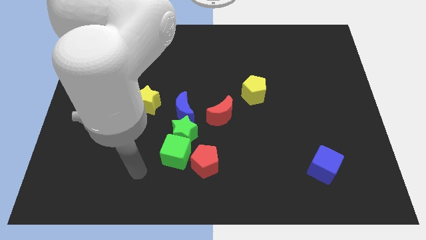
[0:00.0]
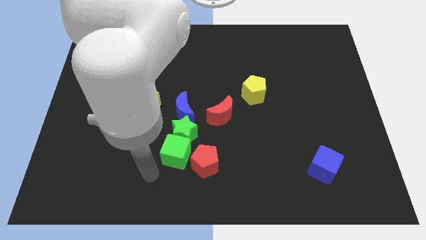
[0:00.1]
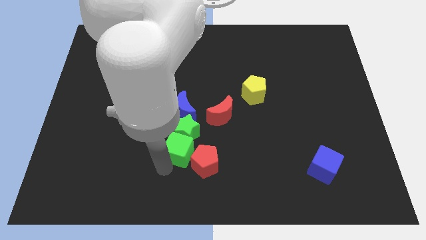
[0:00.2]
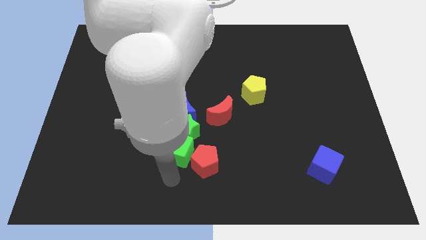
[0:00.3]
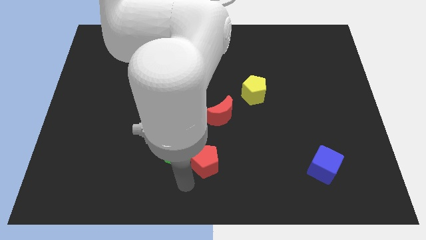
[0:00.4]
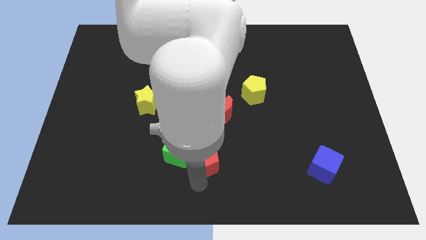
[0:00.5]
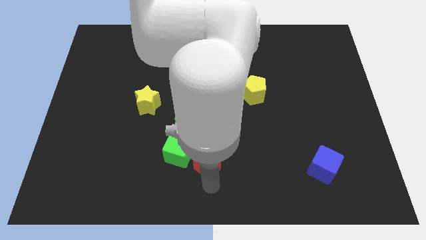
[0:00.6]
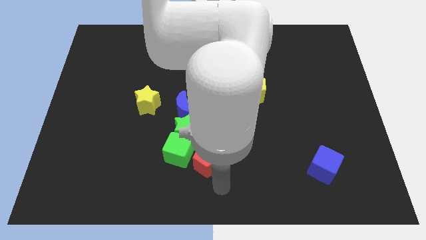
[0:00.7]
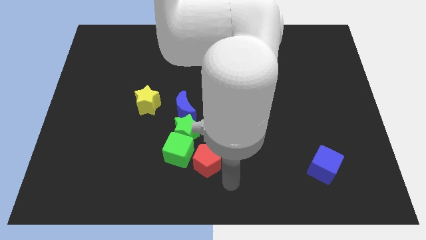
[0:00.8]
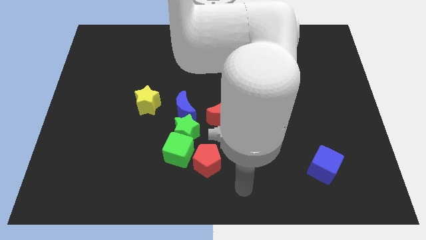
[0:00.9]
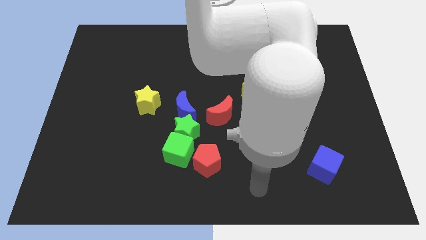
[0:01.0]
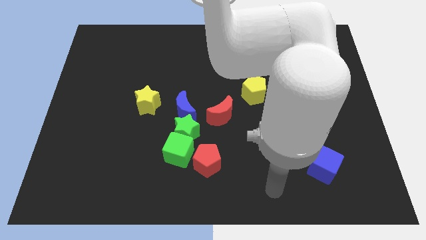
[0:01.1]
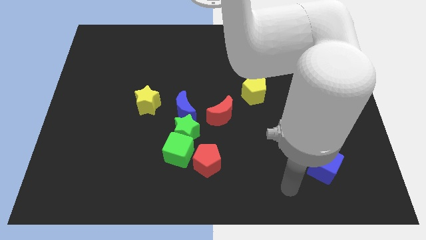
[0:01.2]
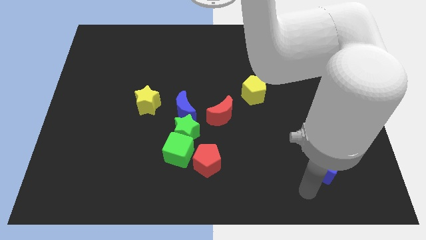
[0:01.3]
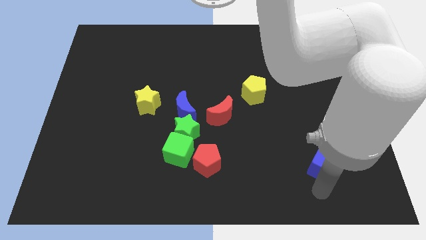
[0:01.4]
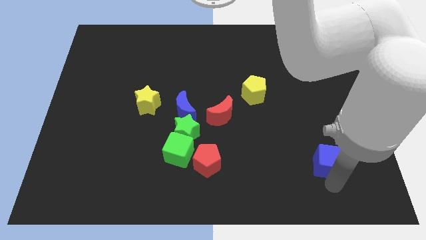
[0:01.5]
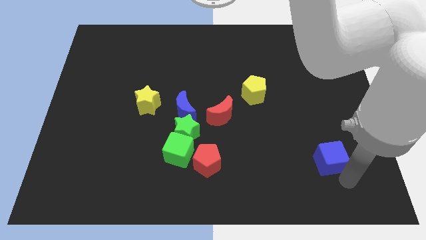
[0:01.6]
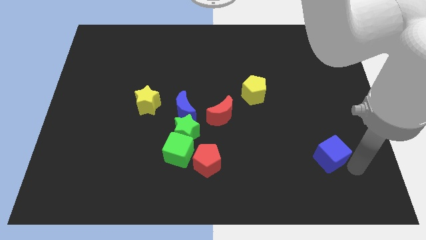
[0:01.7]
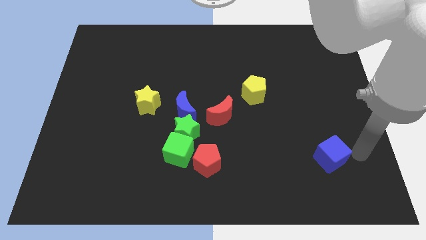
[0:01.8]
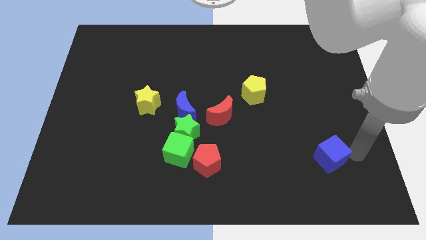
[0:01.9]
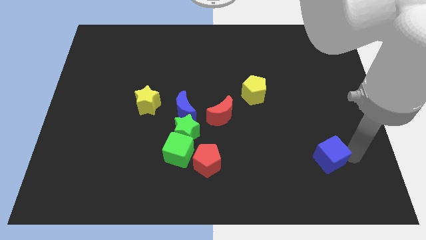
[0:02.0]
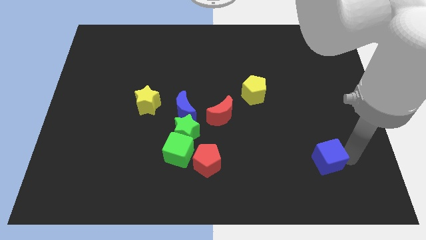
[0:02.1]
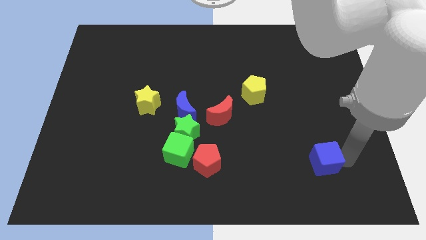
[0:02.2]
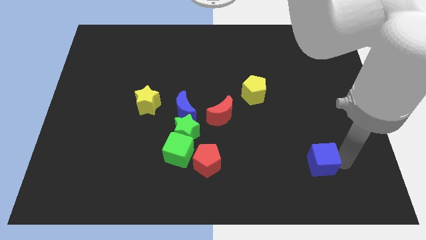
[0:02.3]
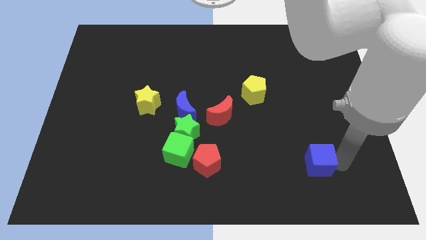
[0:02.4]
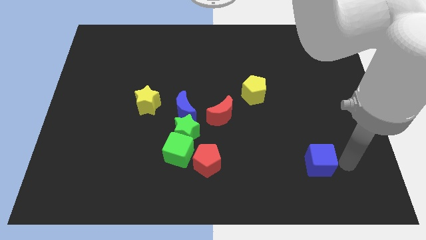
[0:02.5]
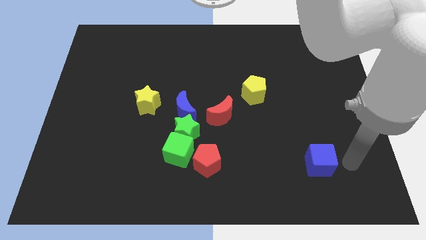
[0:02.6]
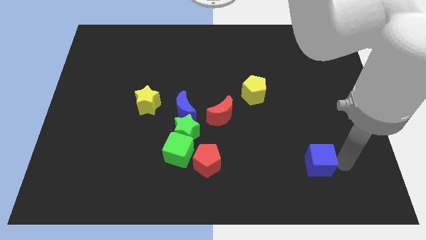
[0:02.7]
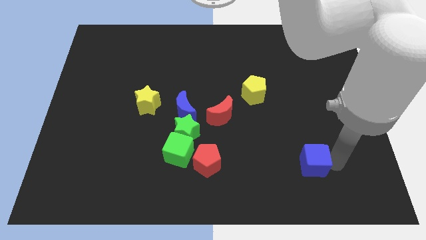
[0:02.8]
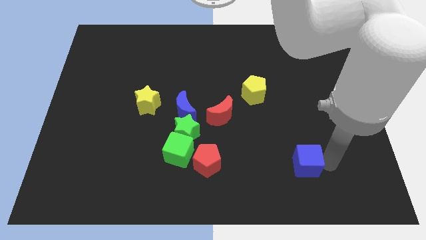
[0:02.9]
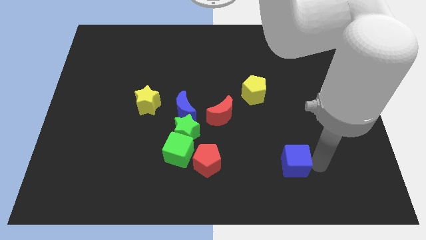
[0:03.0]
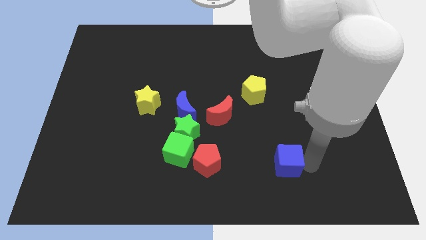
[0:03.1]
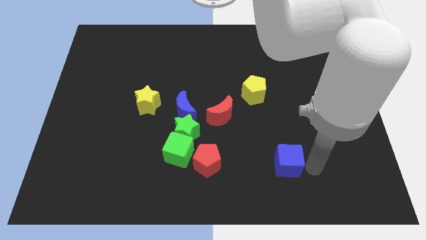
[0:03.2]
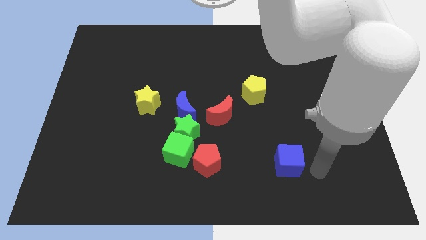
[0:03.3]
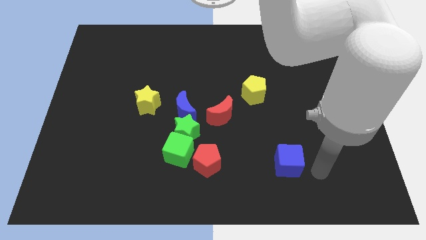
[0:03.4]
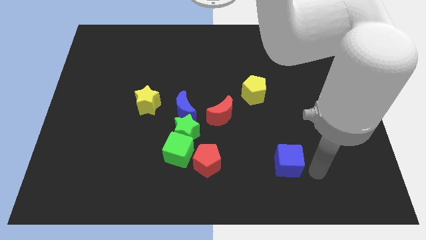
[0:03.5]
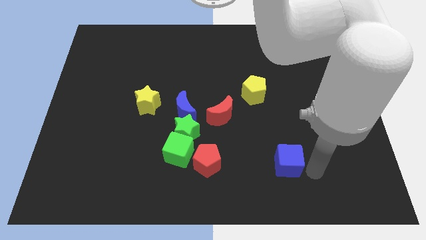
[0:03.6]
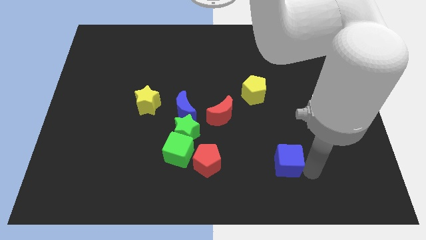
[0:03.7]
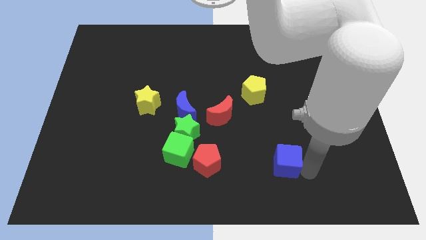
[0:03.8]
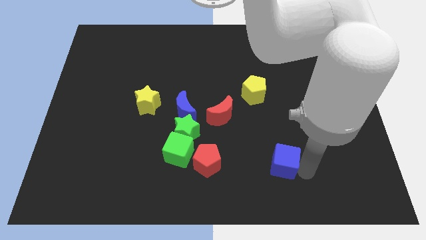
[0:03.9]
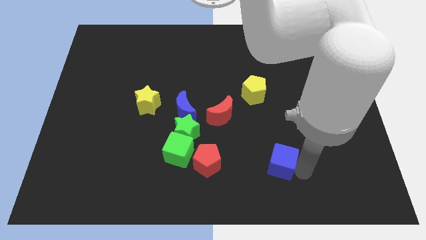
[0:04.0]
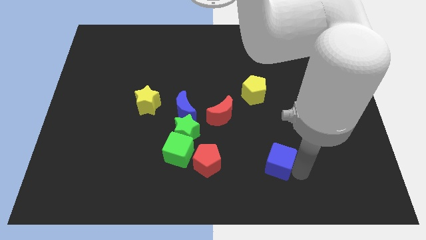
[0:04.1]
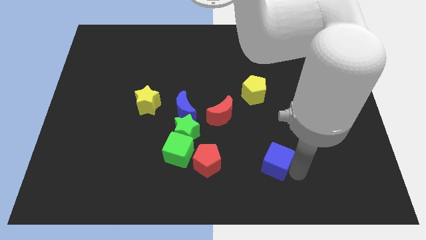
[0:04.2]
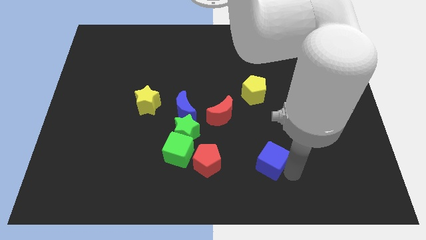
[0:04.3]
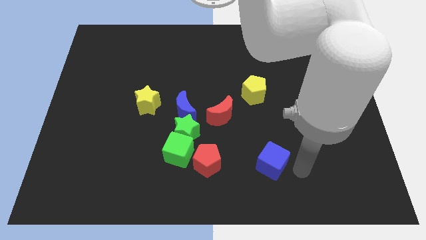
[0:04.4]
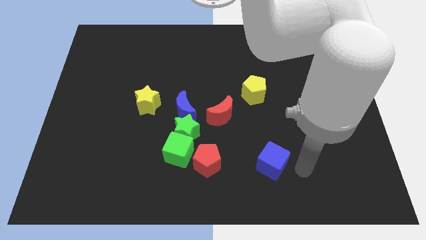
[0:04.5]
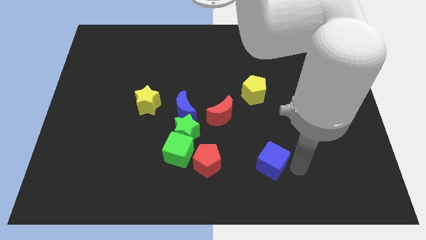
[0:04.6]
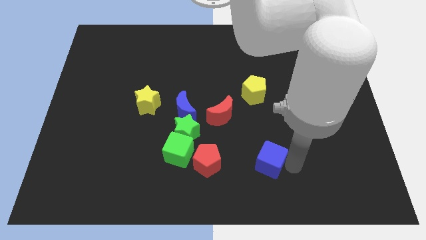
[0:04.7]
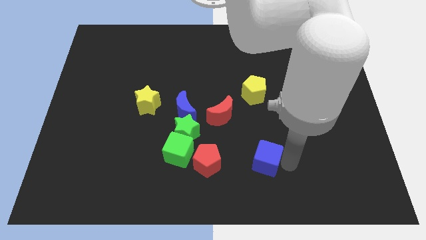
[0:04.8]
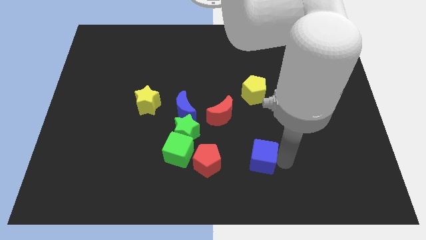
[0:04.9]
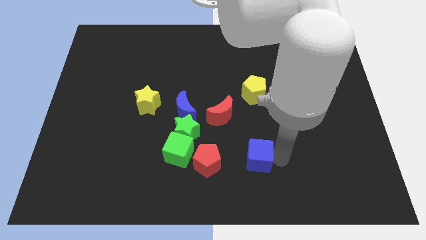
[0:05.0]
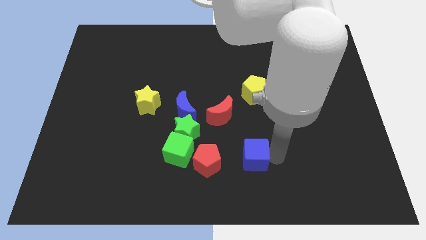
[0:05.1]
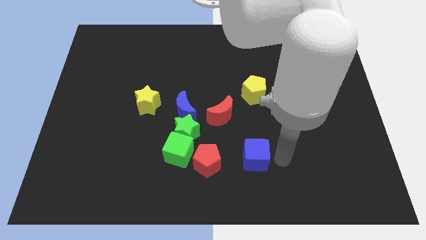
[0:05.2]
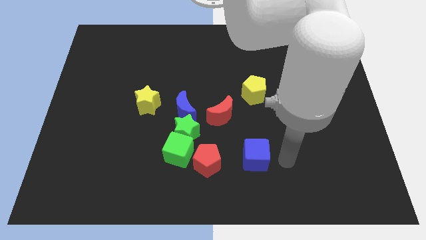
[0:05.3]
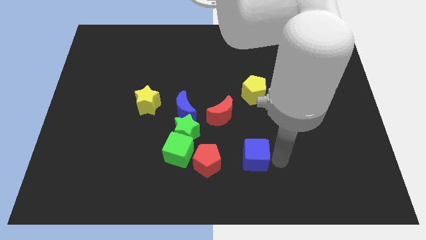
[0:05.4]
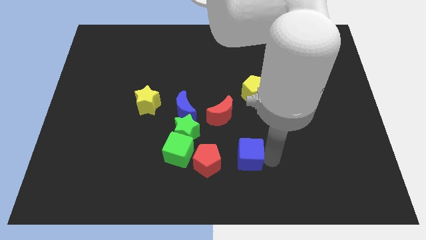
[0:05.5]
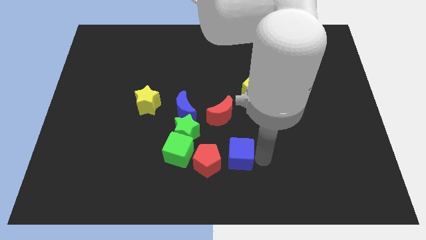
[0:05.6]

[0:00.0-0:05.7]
move the blue cube below the red moon

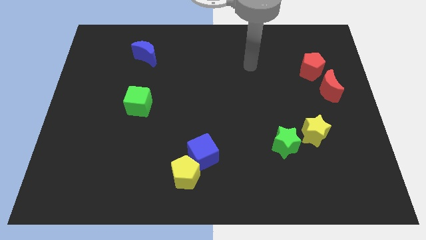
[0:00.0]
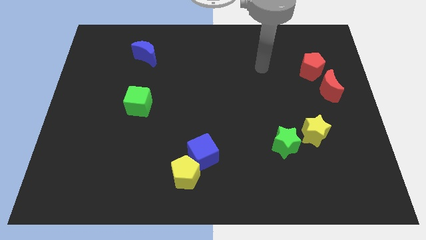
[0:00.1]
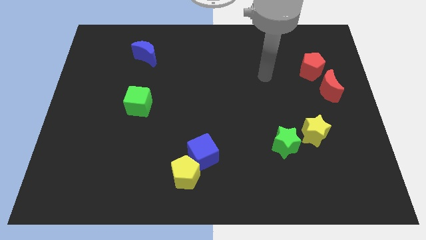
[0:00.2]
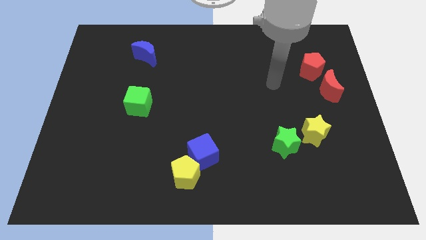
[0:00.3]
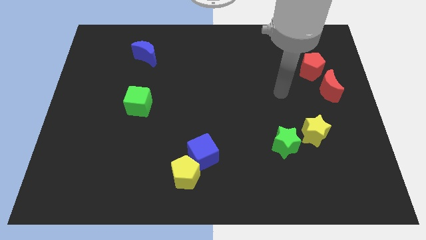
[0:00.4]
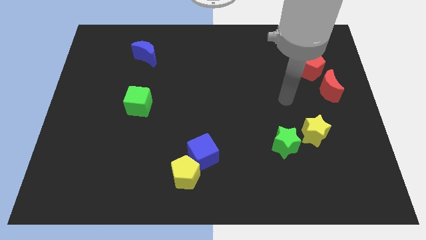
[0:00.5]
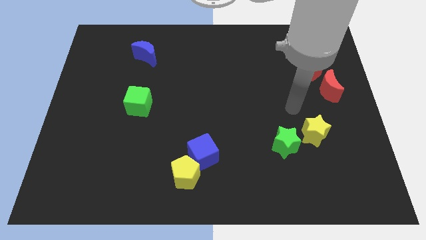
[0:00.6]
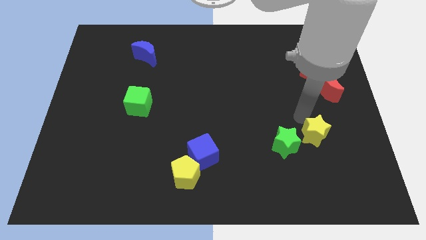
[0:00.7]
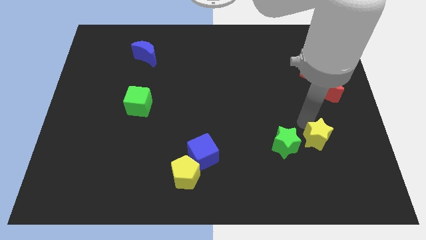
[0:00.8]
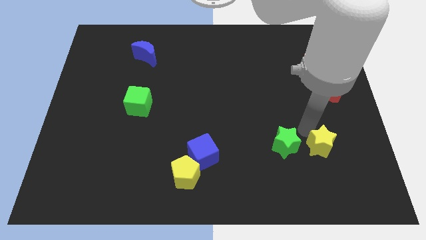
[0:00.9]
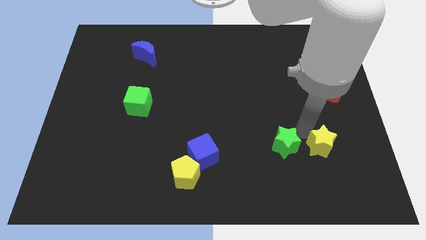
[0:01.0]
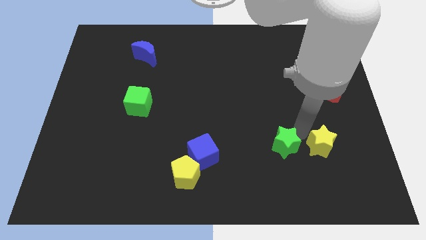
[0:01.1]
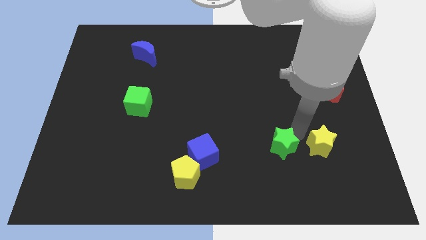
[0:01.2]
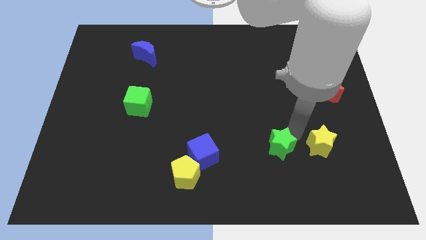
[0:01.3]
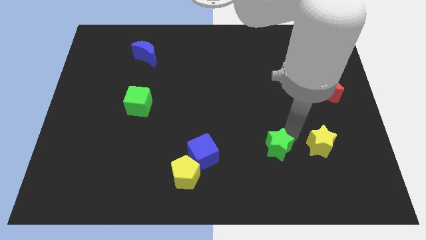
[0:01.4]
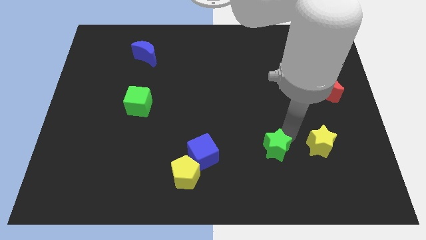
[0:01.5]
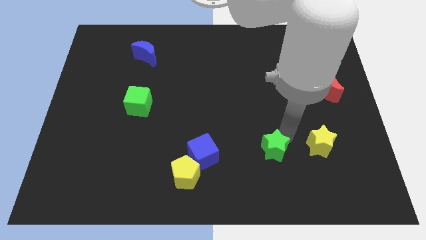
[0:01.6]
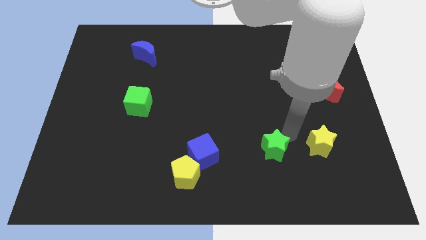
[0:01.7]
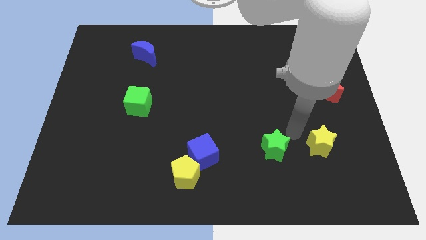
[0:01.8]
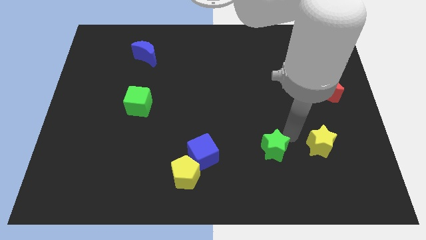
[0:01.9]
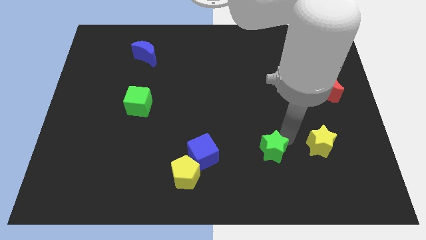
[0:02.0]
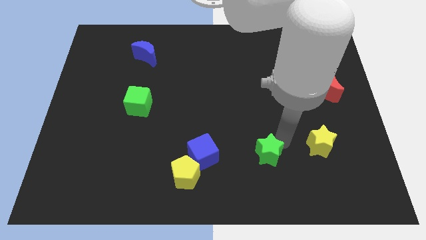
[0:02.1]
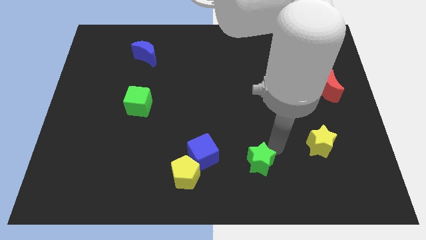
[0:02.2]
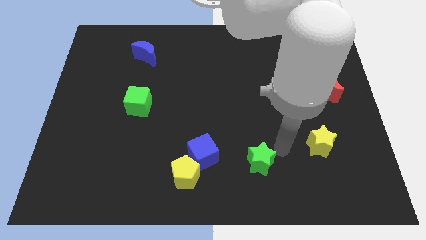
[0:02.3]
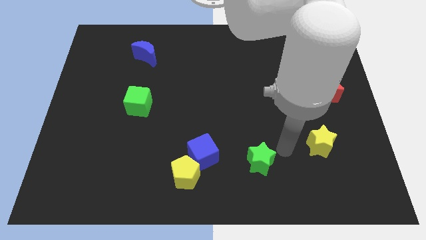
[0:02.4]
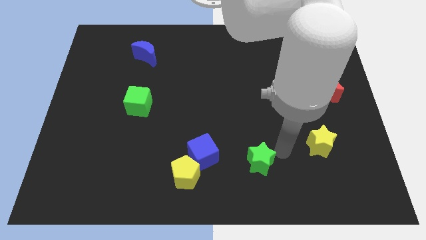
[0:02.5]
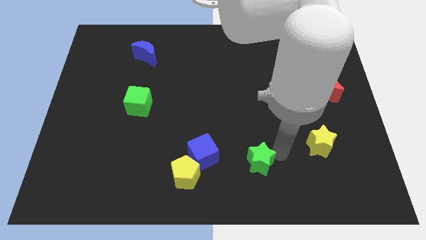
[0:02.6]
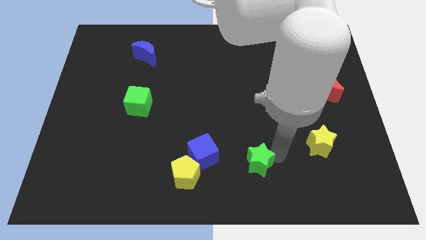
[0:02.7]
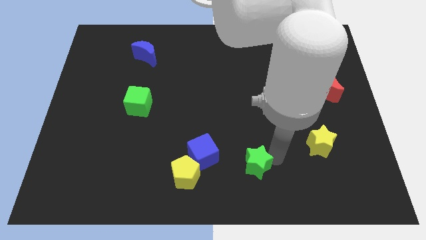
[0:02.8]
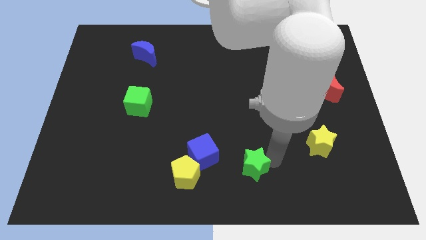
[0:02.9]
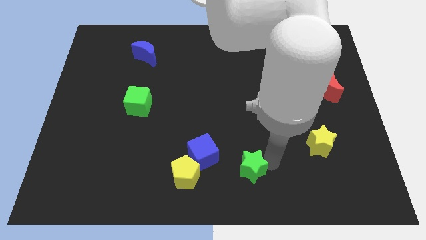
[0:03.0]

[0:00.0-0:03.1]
move the green star diagonally down and to the right of the blue cube
